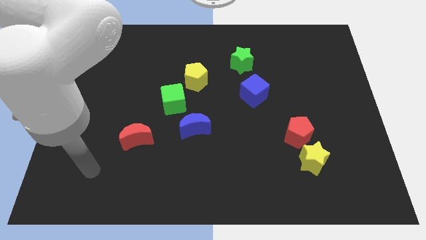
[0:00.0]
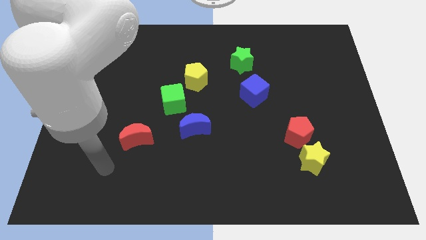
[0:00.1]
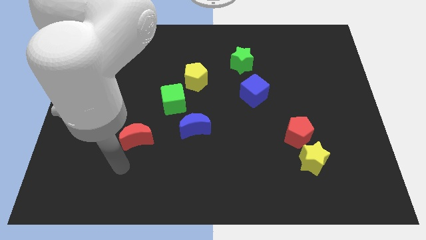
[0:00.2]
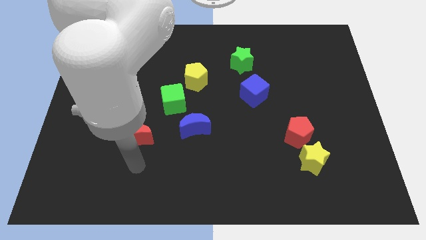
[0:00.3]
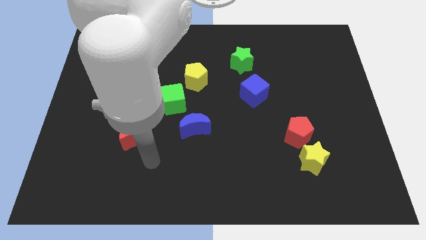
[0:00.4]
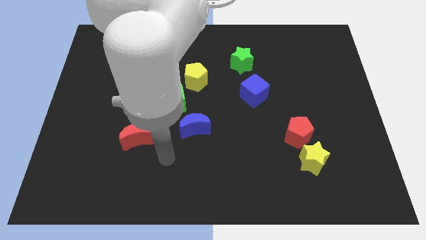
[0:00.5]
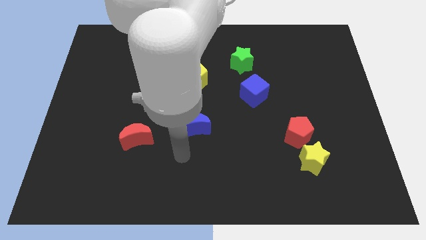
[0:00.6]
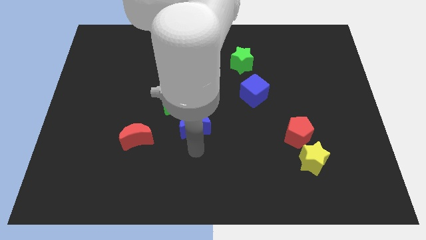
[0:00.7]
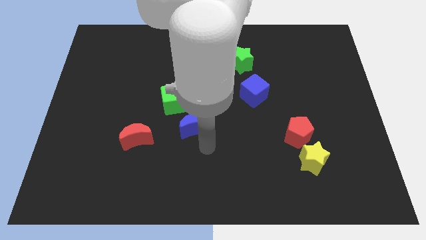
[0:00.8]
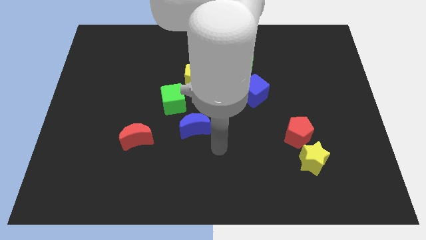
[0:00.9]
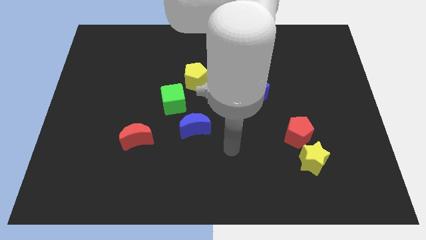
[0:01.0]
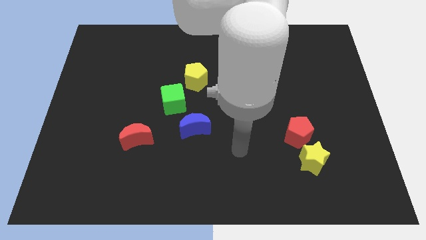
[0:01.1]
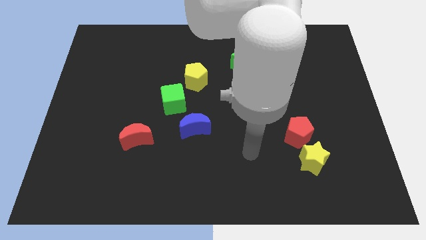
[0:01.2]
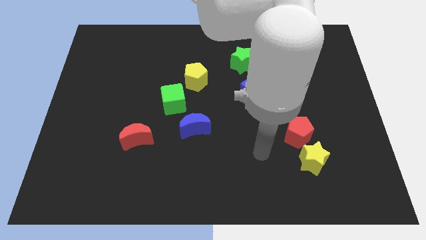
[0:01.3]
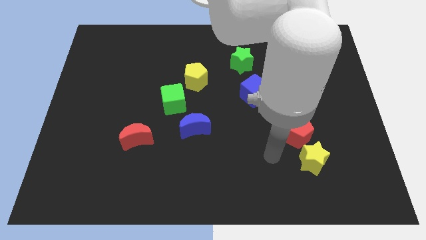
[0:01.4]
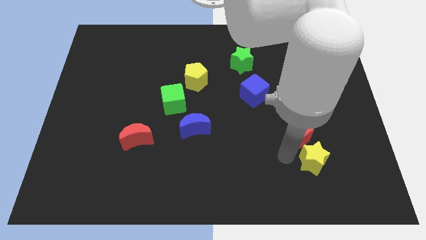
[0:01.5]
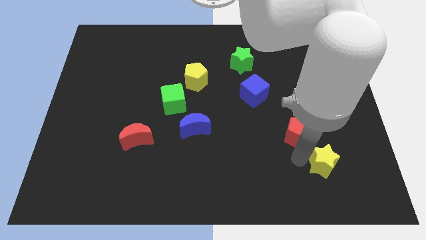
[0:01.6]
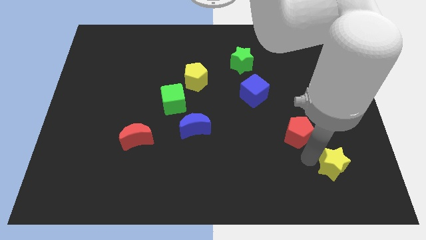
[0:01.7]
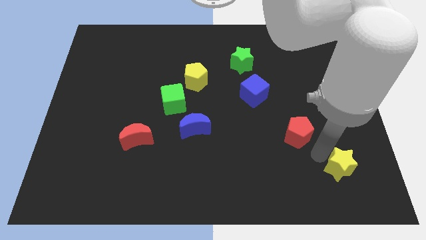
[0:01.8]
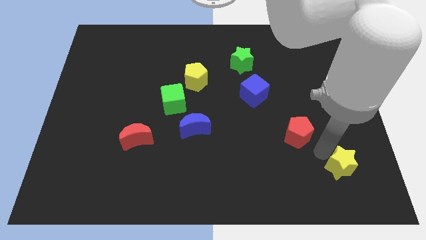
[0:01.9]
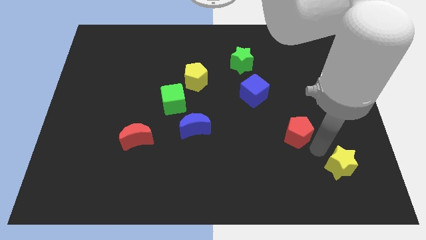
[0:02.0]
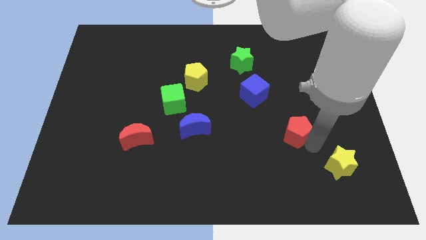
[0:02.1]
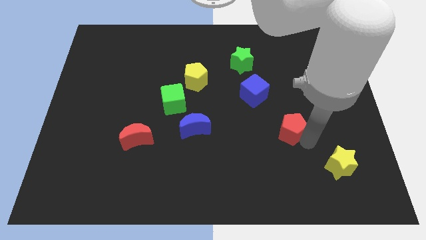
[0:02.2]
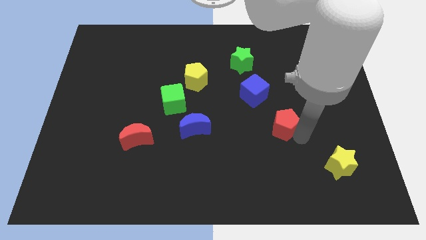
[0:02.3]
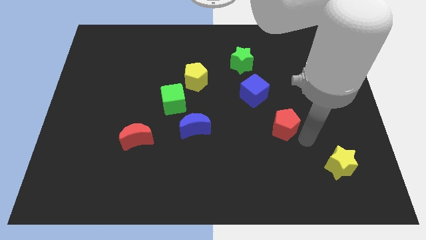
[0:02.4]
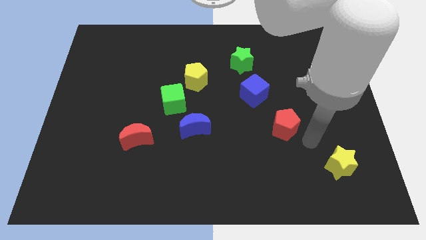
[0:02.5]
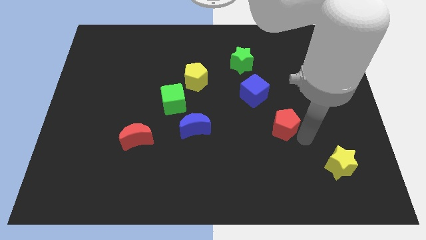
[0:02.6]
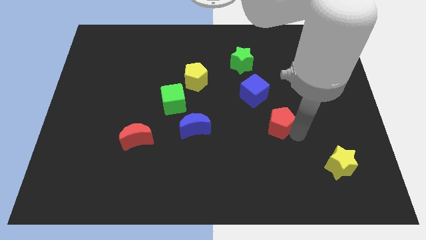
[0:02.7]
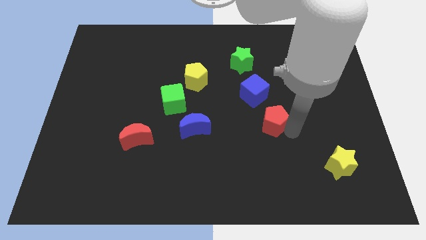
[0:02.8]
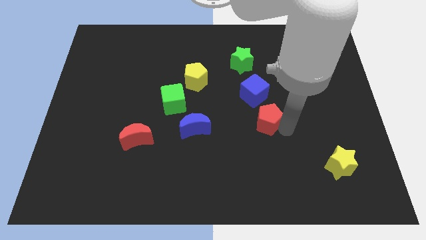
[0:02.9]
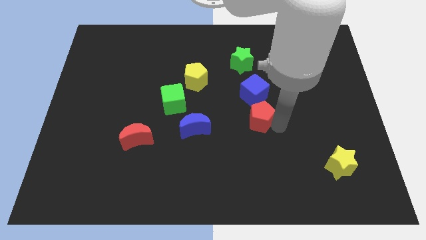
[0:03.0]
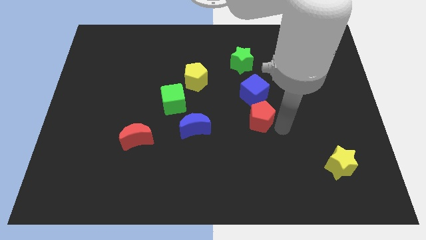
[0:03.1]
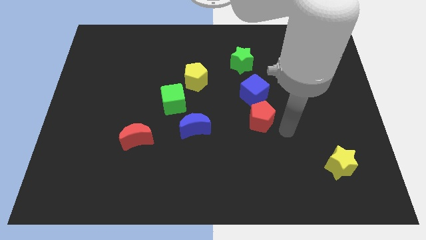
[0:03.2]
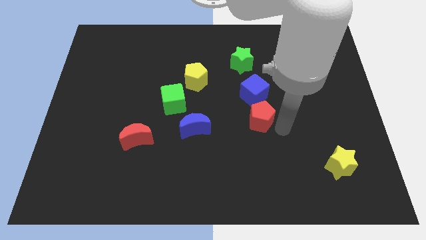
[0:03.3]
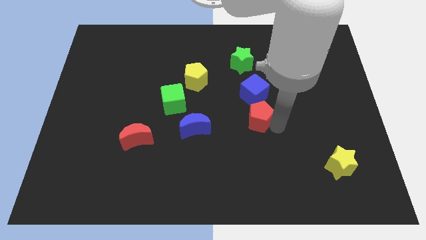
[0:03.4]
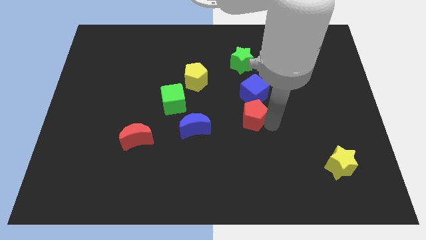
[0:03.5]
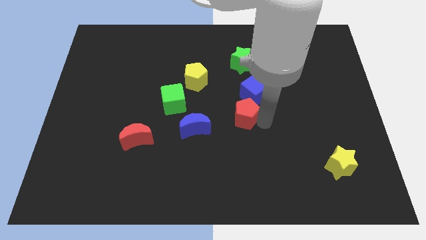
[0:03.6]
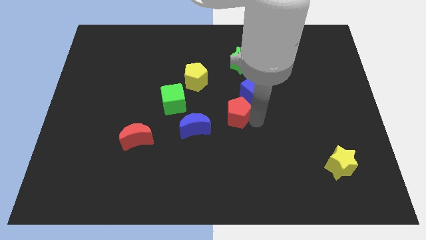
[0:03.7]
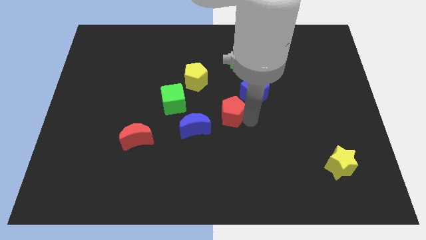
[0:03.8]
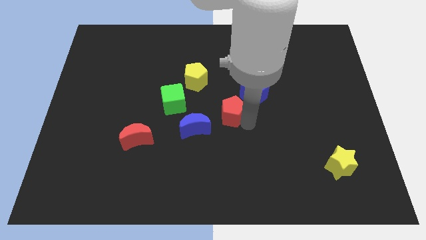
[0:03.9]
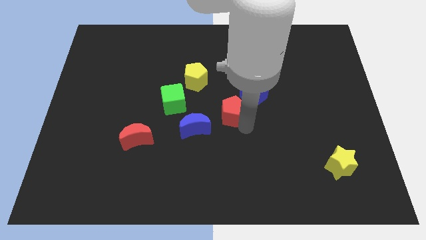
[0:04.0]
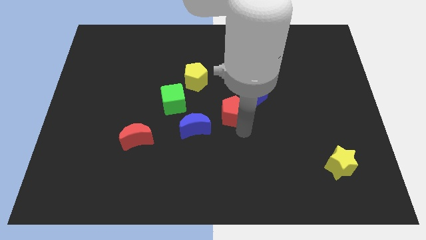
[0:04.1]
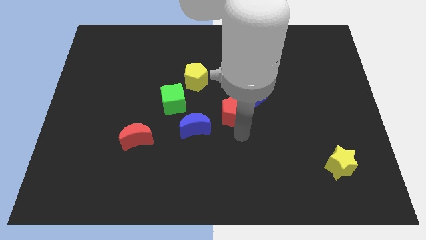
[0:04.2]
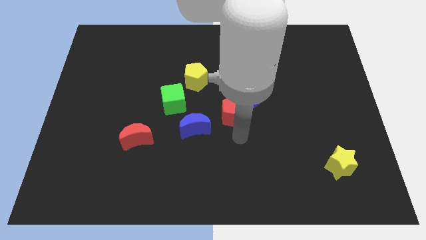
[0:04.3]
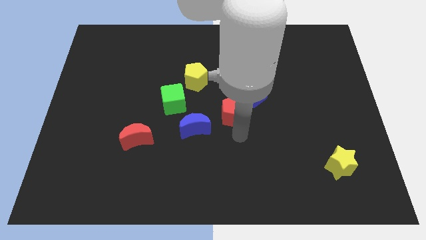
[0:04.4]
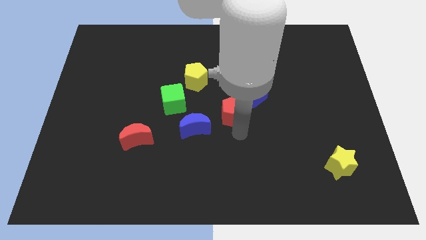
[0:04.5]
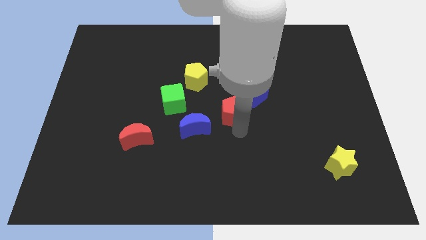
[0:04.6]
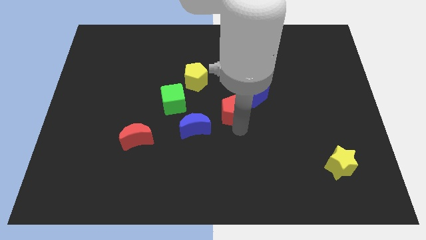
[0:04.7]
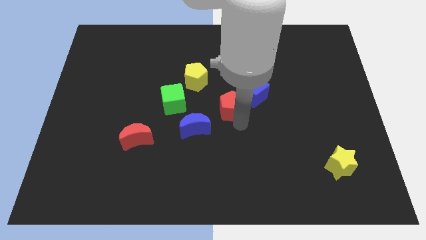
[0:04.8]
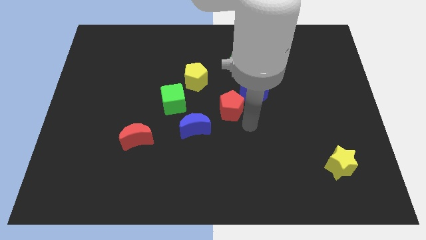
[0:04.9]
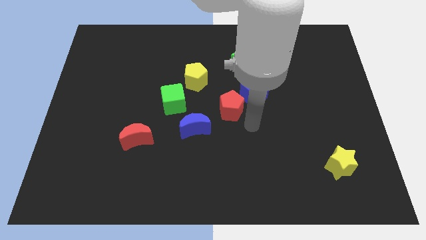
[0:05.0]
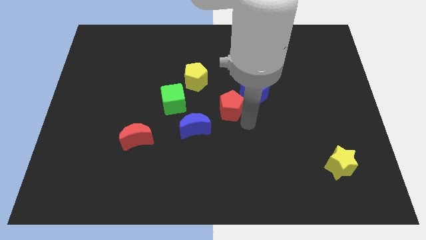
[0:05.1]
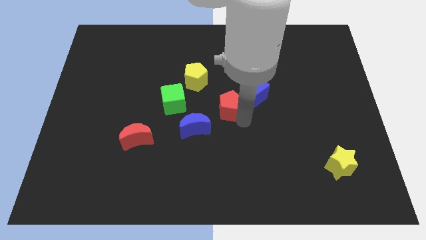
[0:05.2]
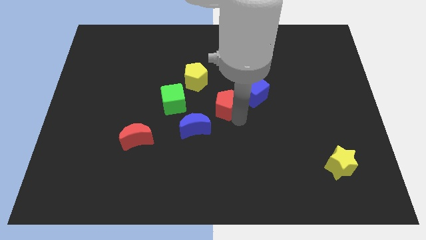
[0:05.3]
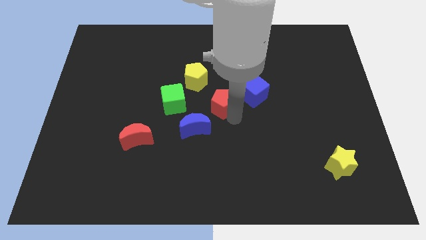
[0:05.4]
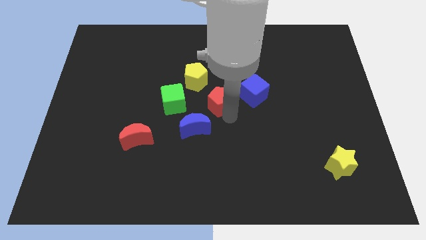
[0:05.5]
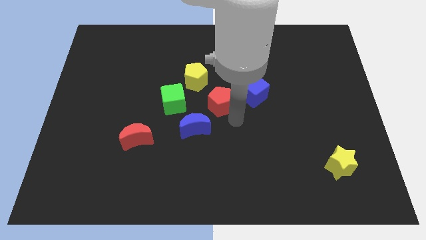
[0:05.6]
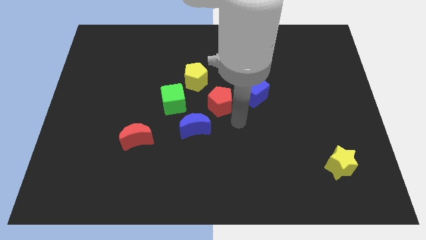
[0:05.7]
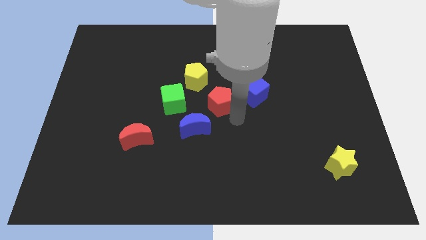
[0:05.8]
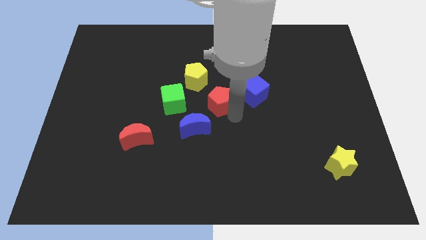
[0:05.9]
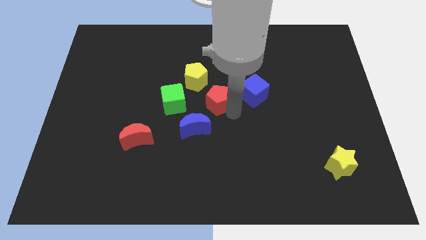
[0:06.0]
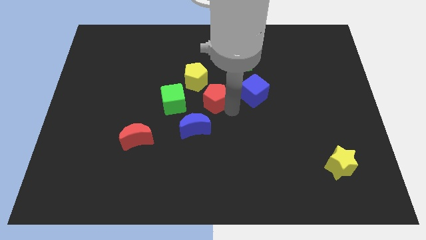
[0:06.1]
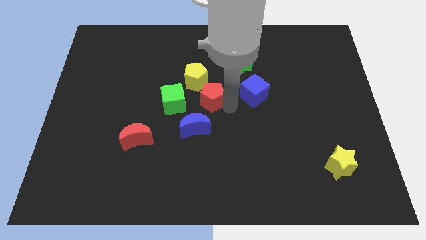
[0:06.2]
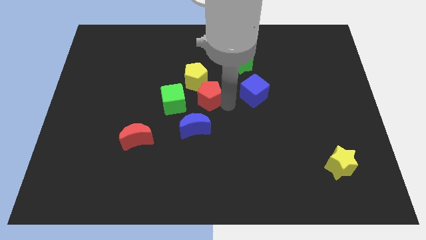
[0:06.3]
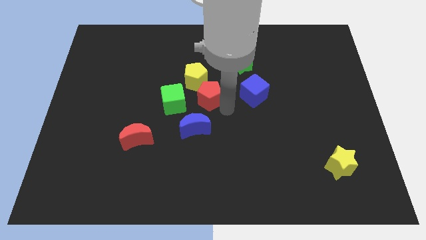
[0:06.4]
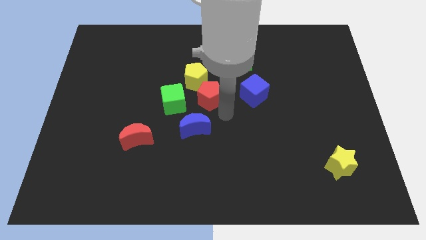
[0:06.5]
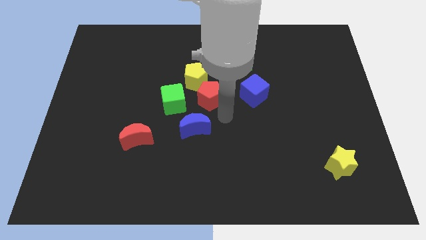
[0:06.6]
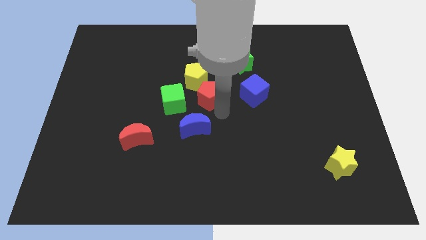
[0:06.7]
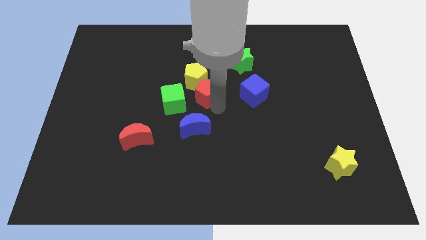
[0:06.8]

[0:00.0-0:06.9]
slide the red pentagon to the yellow pentagon
